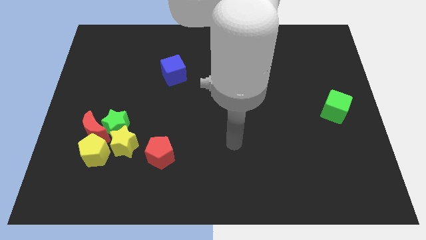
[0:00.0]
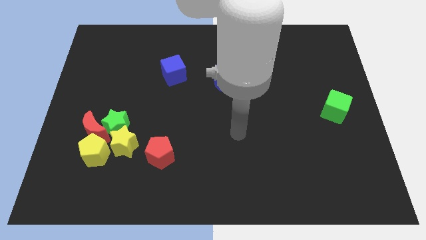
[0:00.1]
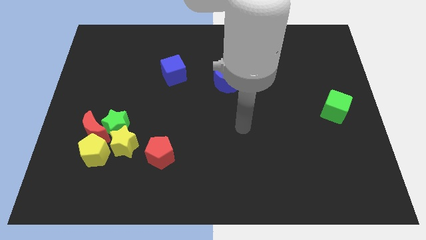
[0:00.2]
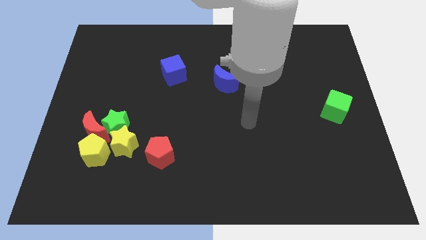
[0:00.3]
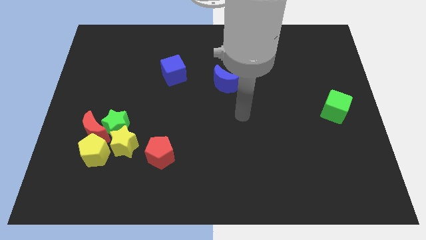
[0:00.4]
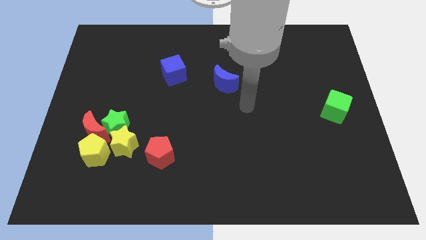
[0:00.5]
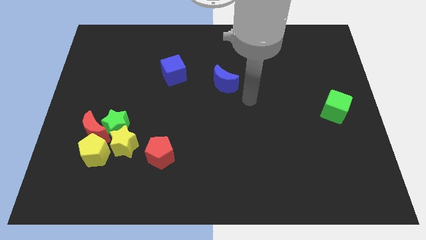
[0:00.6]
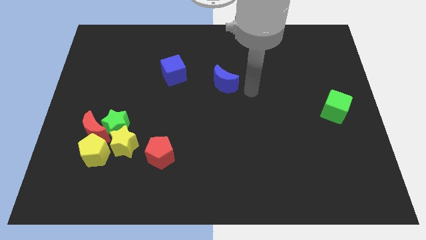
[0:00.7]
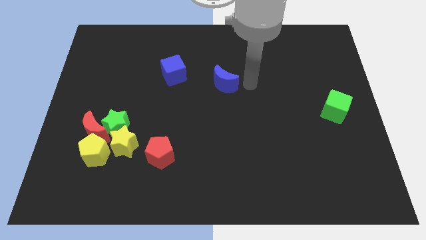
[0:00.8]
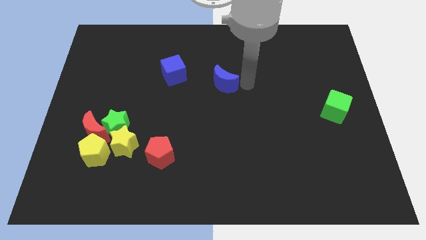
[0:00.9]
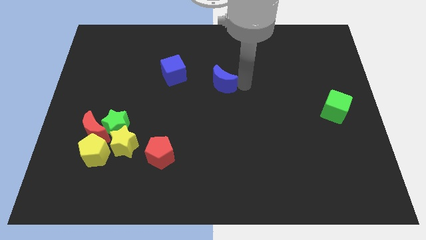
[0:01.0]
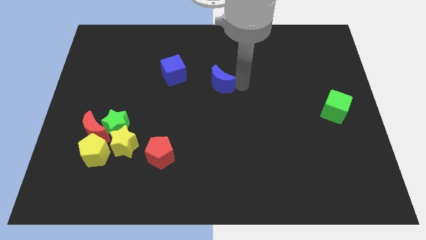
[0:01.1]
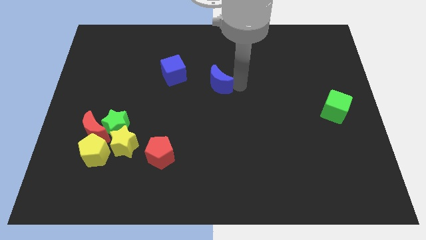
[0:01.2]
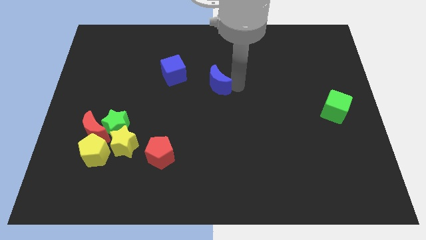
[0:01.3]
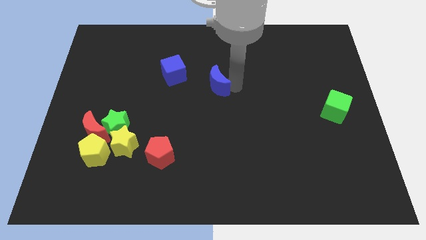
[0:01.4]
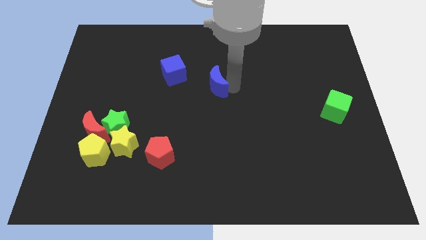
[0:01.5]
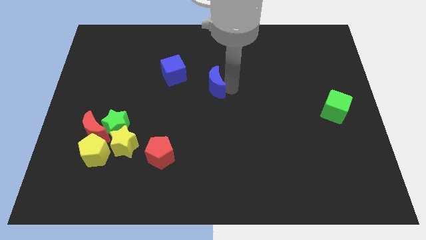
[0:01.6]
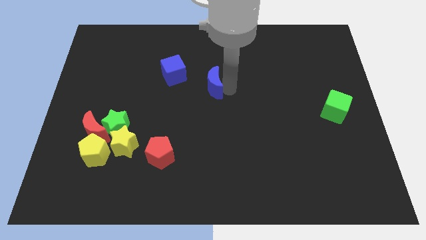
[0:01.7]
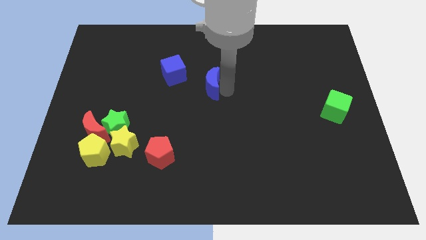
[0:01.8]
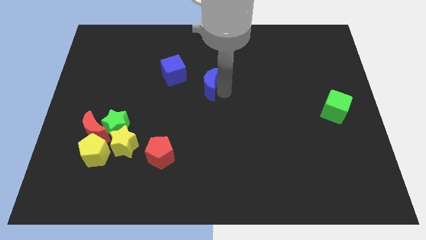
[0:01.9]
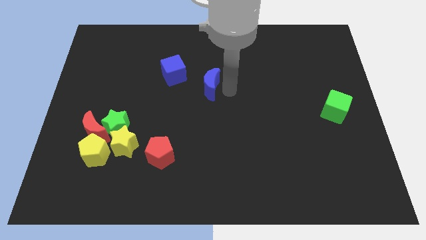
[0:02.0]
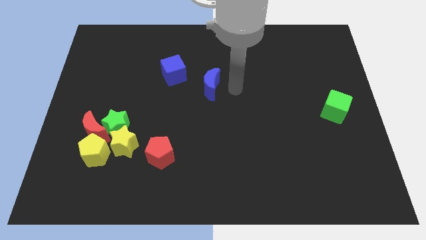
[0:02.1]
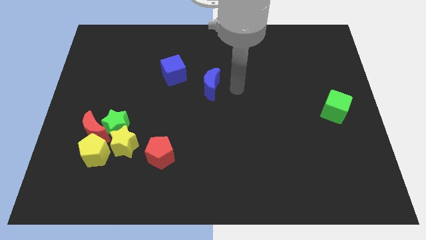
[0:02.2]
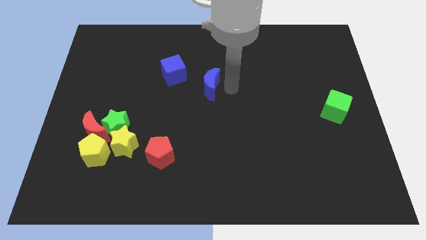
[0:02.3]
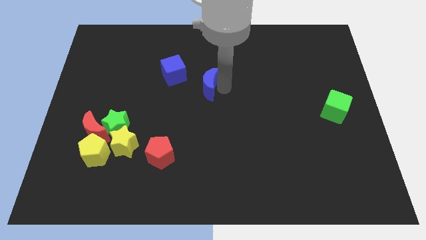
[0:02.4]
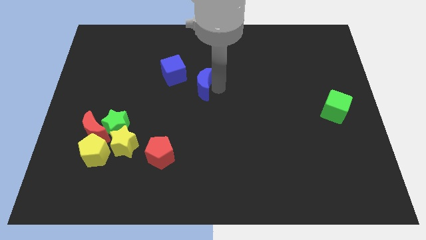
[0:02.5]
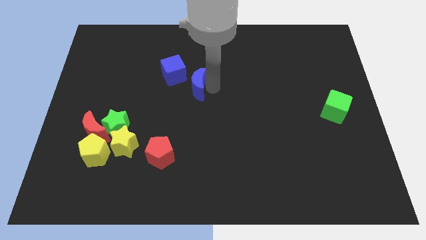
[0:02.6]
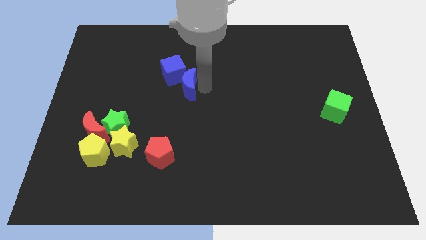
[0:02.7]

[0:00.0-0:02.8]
push the blue moon left slightly

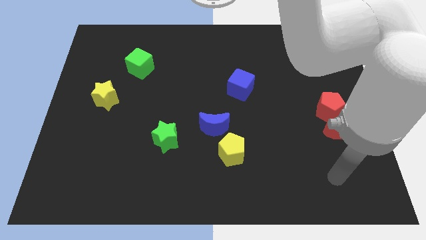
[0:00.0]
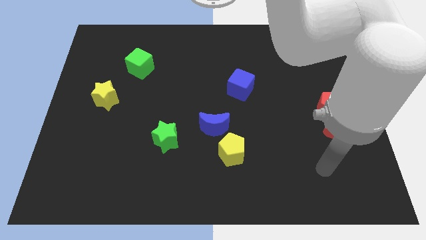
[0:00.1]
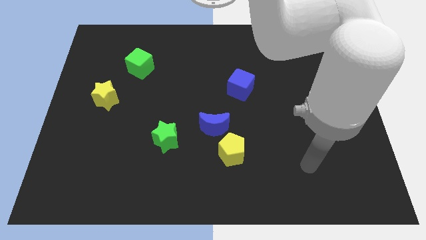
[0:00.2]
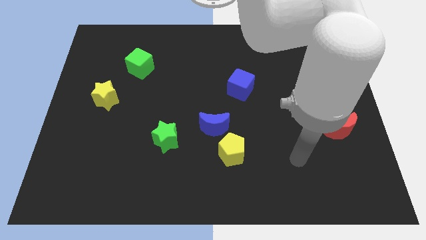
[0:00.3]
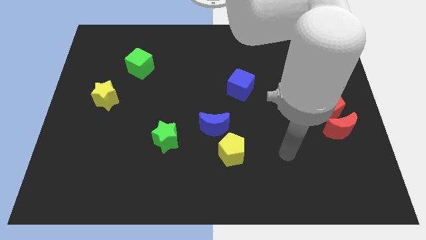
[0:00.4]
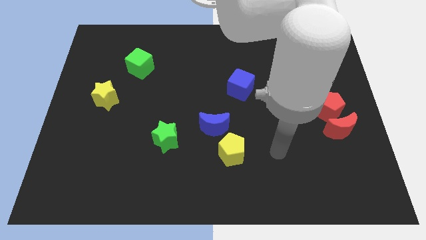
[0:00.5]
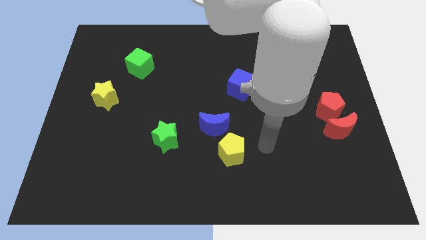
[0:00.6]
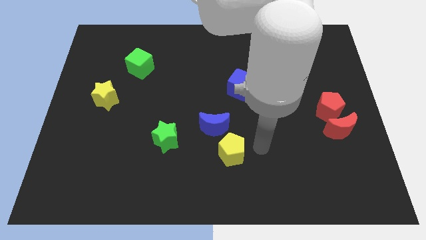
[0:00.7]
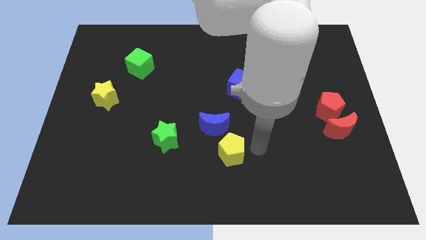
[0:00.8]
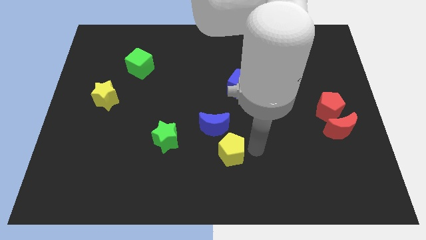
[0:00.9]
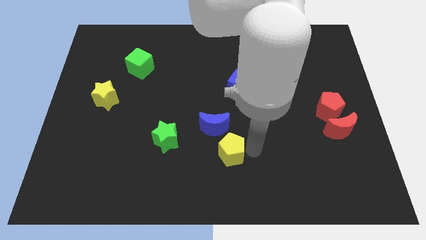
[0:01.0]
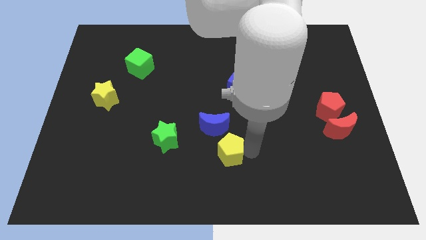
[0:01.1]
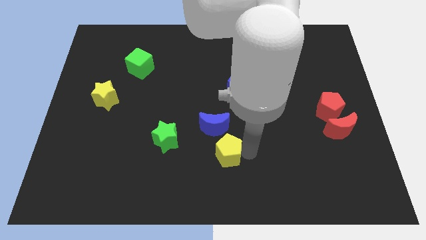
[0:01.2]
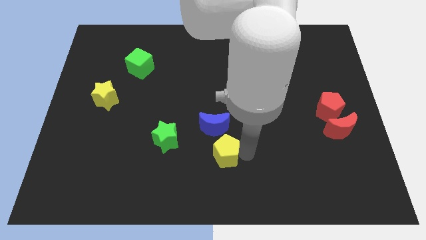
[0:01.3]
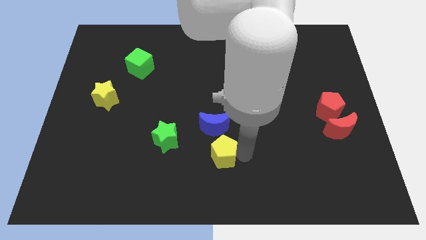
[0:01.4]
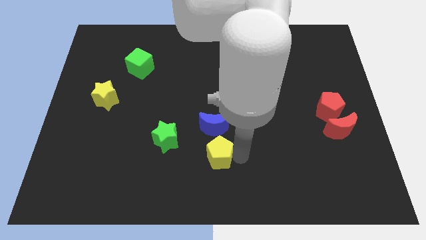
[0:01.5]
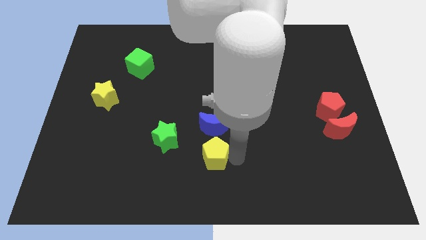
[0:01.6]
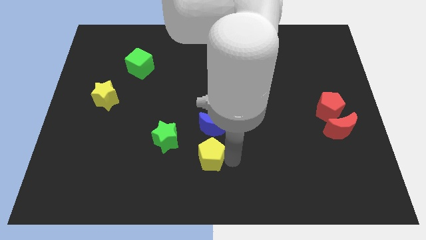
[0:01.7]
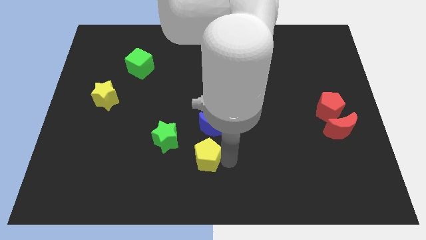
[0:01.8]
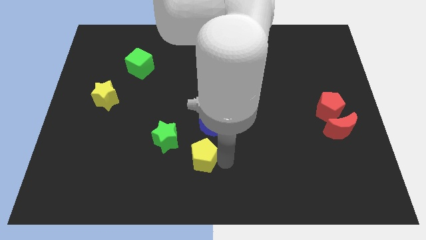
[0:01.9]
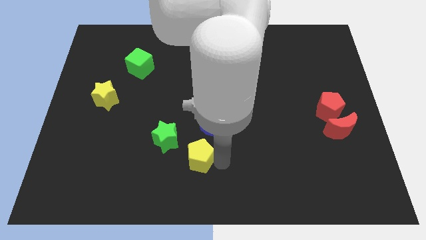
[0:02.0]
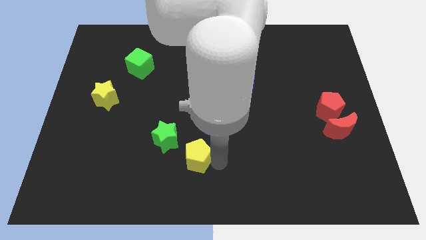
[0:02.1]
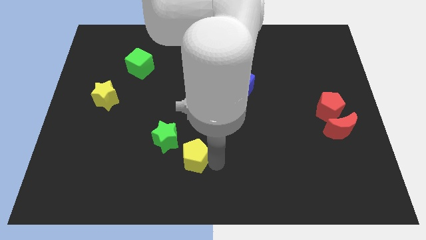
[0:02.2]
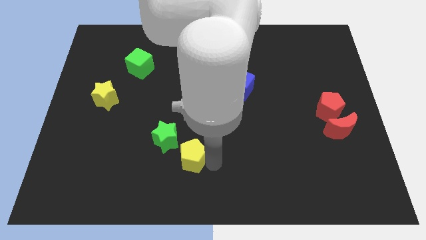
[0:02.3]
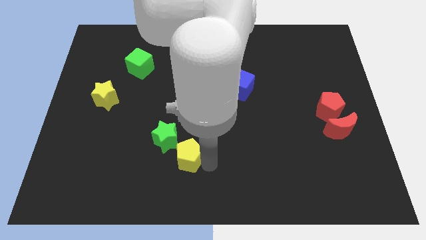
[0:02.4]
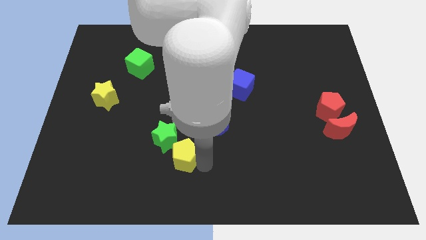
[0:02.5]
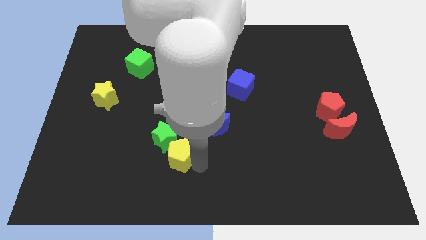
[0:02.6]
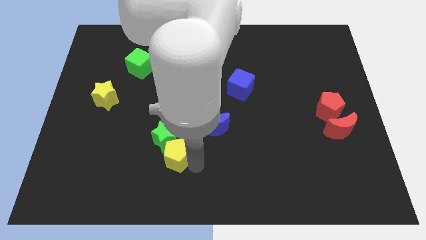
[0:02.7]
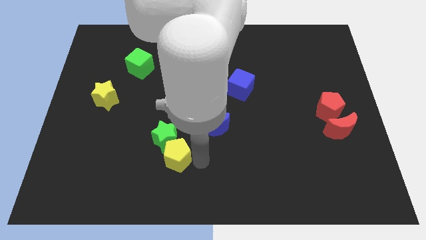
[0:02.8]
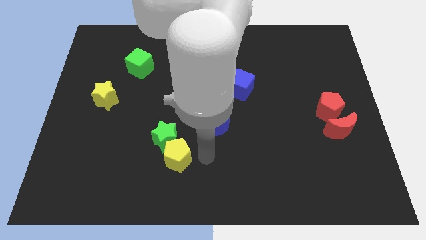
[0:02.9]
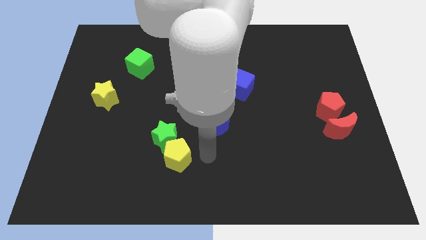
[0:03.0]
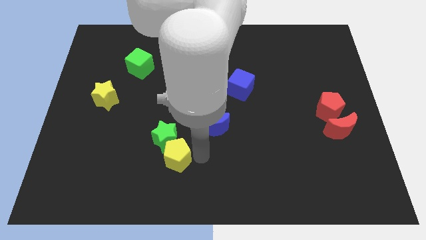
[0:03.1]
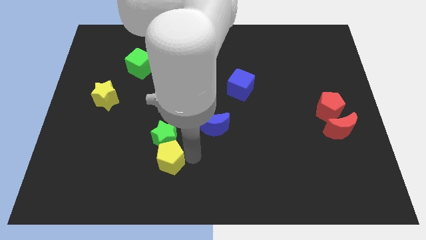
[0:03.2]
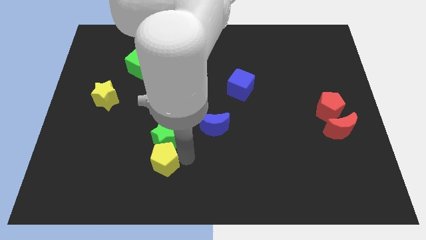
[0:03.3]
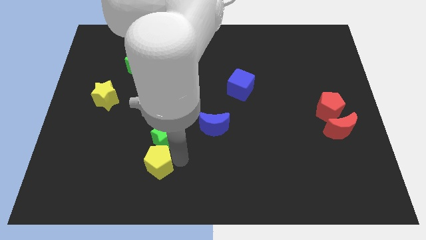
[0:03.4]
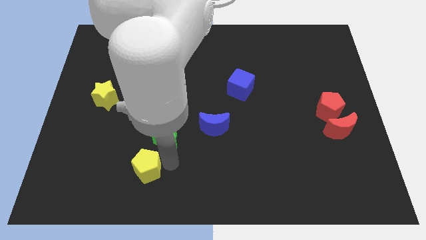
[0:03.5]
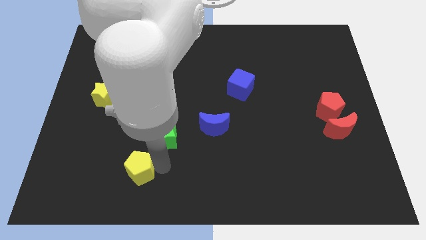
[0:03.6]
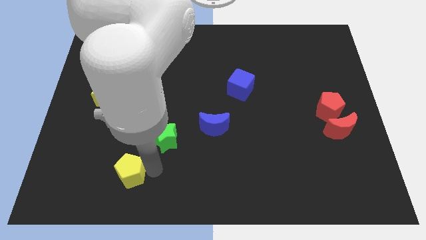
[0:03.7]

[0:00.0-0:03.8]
slide the yellow pentagon left

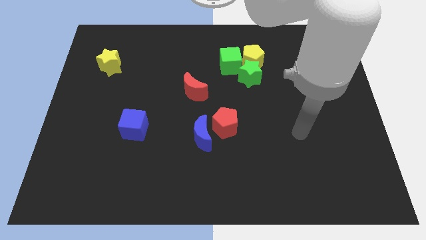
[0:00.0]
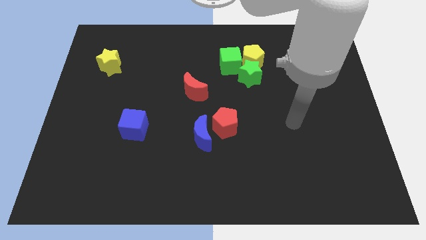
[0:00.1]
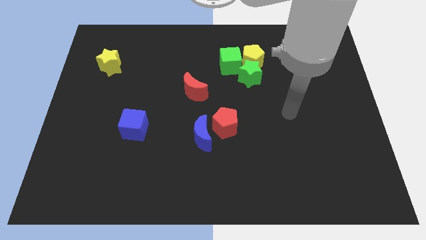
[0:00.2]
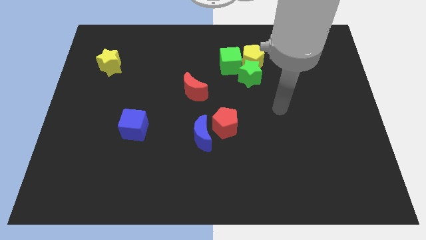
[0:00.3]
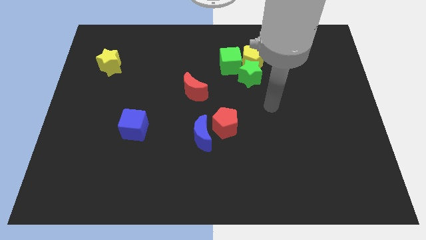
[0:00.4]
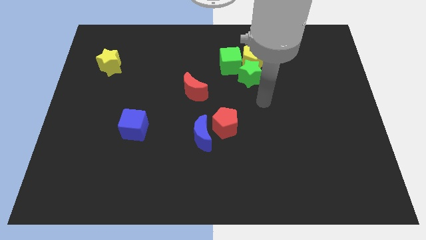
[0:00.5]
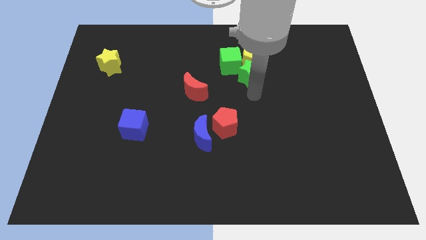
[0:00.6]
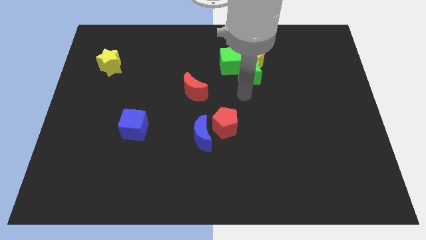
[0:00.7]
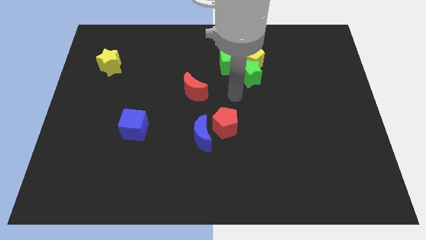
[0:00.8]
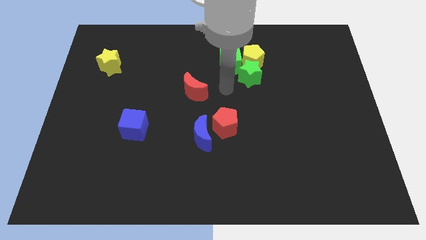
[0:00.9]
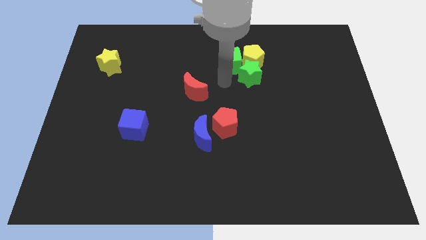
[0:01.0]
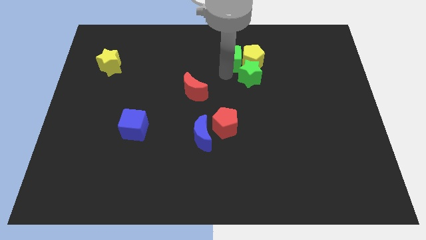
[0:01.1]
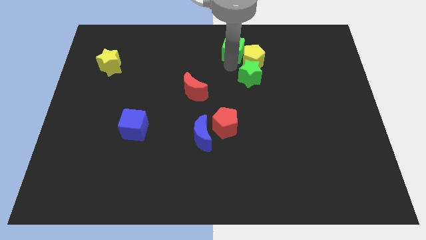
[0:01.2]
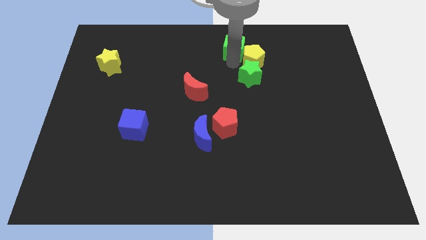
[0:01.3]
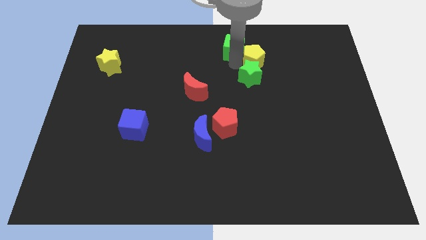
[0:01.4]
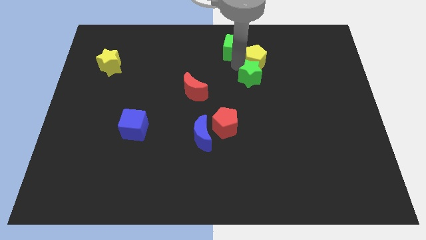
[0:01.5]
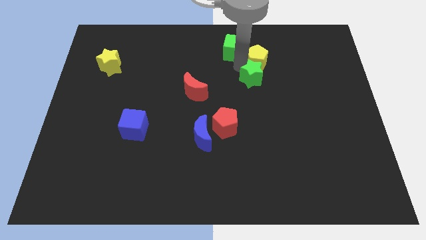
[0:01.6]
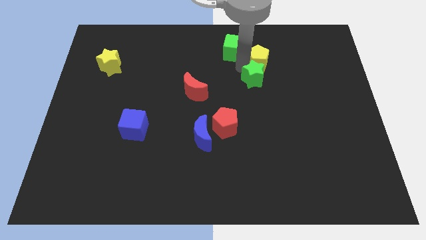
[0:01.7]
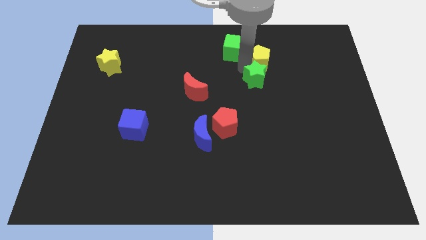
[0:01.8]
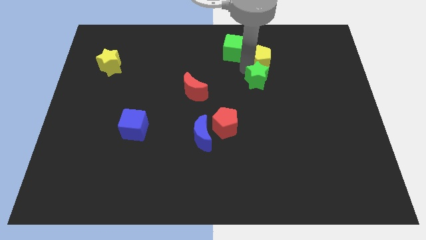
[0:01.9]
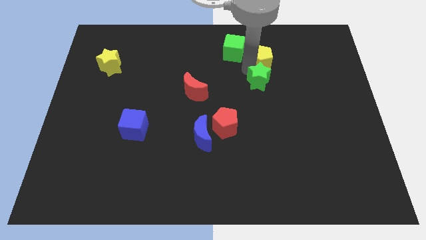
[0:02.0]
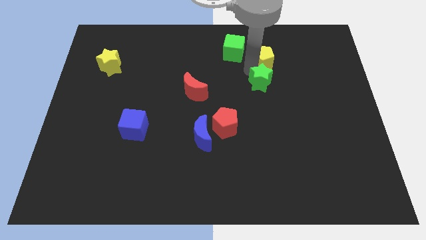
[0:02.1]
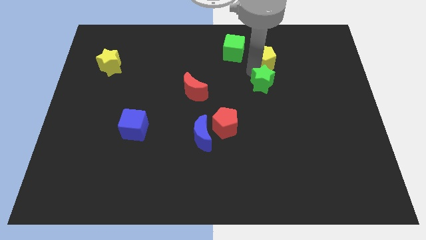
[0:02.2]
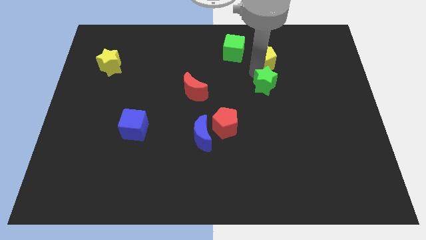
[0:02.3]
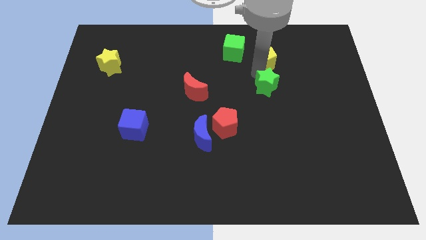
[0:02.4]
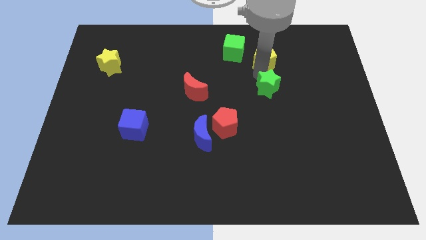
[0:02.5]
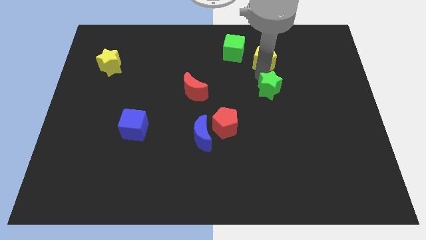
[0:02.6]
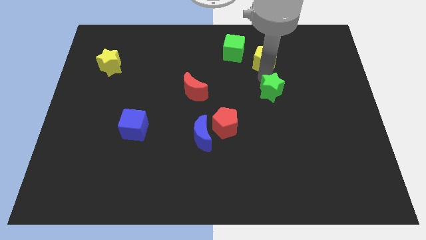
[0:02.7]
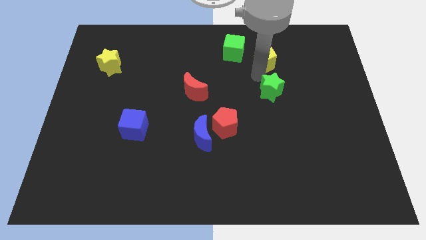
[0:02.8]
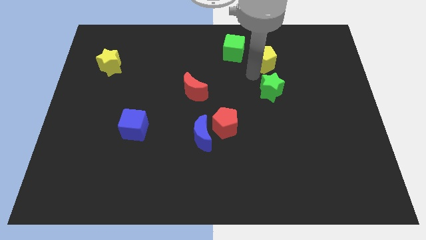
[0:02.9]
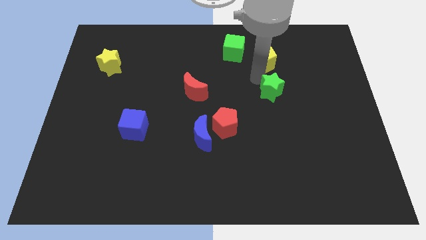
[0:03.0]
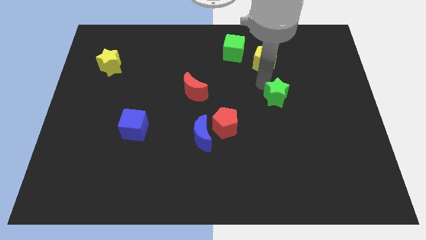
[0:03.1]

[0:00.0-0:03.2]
slightly move the green star diagonally down and to the right
